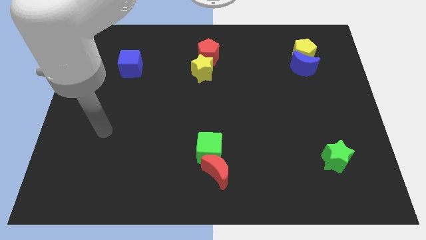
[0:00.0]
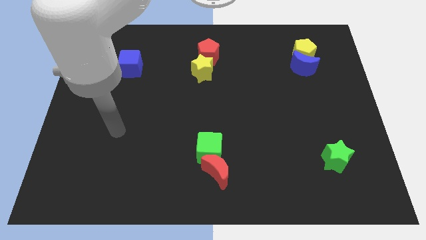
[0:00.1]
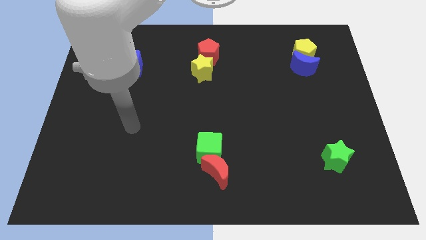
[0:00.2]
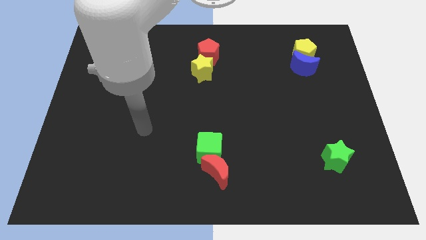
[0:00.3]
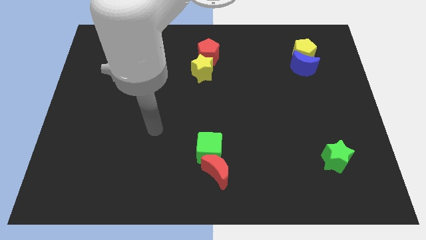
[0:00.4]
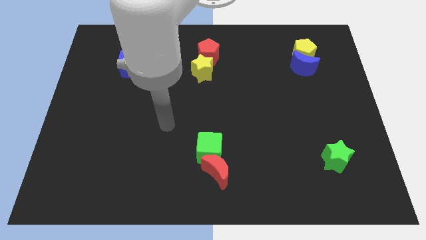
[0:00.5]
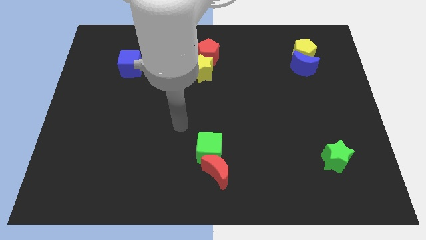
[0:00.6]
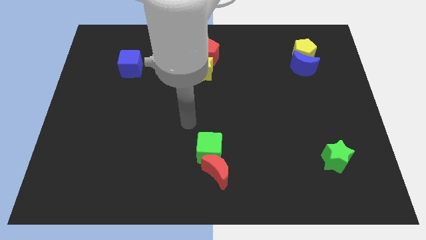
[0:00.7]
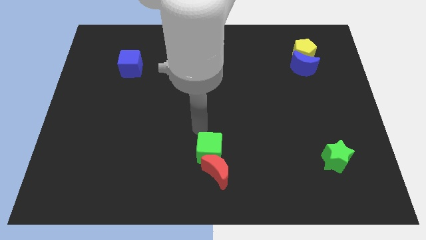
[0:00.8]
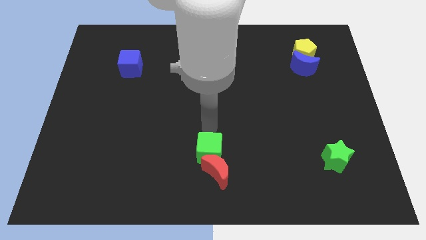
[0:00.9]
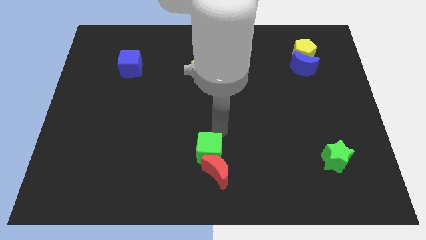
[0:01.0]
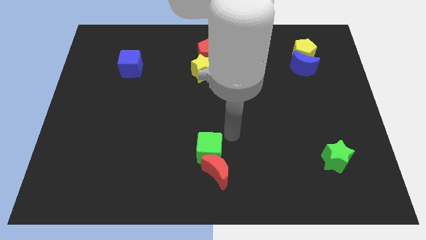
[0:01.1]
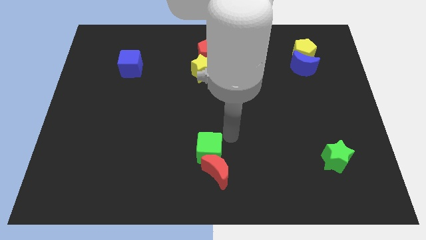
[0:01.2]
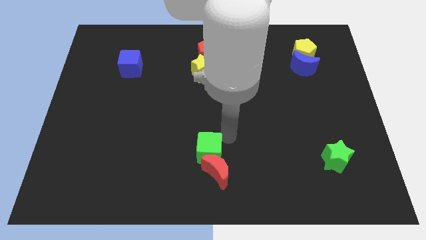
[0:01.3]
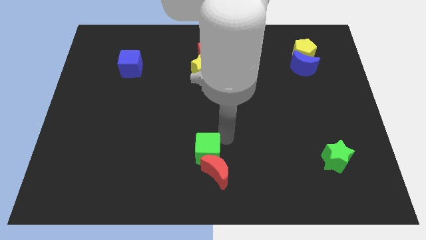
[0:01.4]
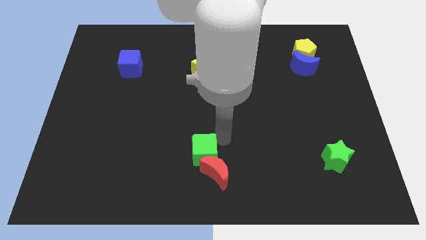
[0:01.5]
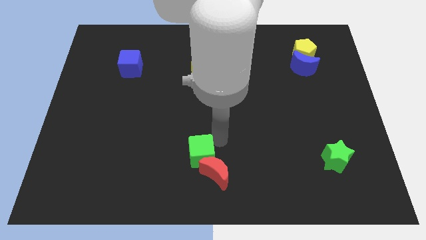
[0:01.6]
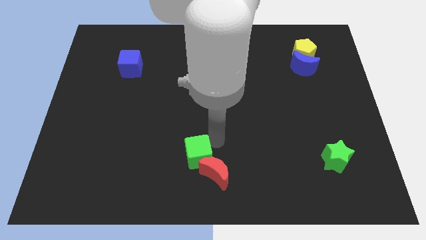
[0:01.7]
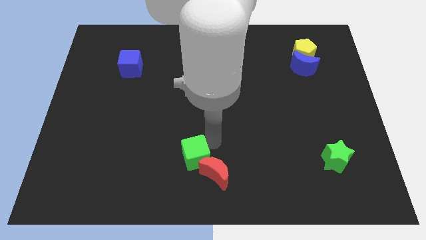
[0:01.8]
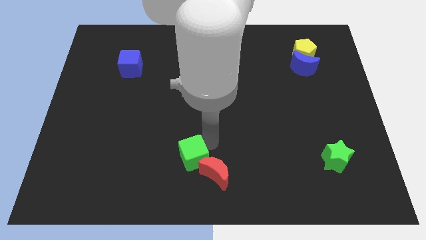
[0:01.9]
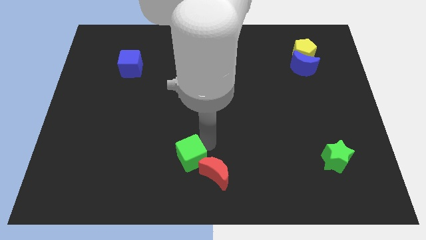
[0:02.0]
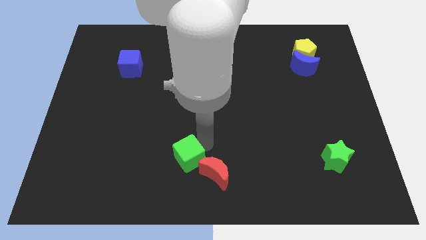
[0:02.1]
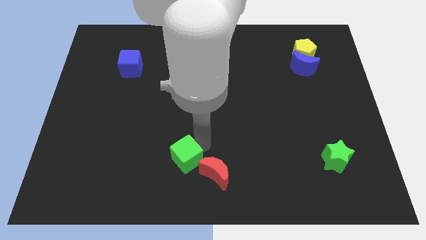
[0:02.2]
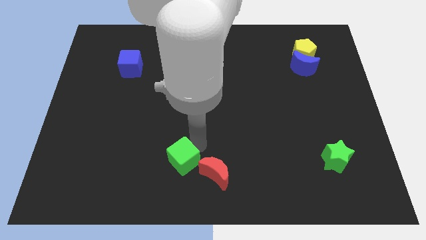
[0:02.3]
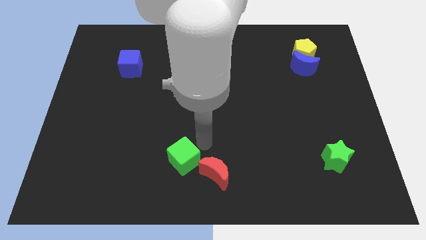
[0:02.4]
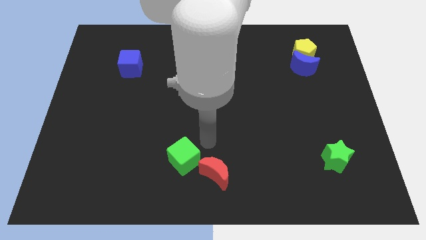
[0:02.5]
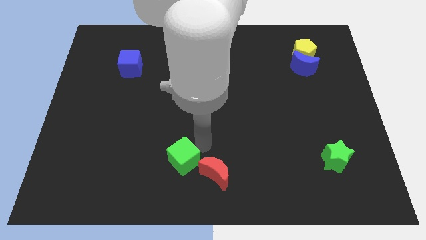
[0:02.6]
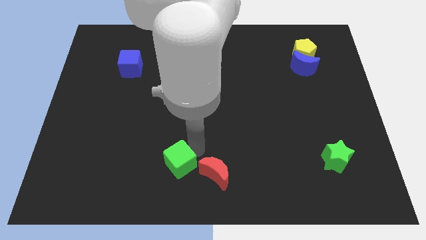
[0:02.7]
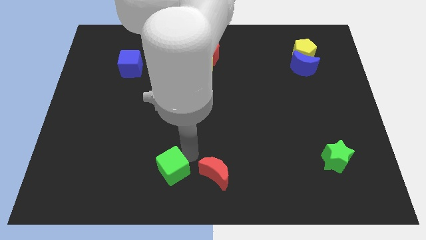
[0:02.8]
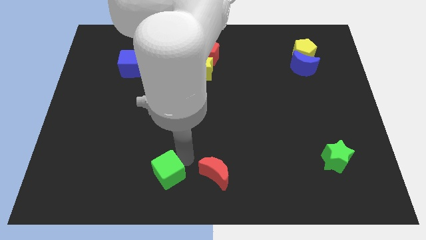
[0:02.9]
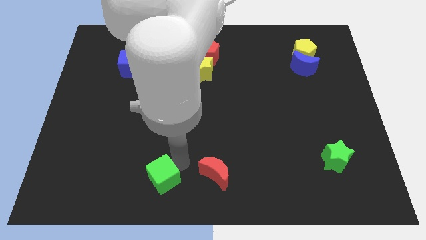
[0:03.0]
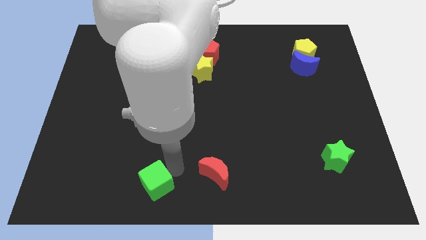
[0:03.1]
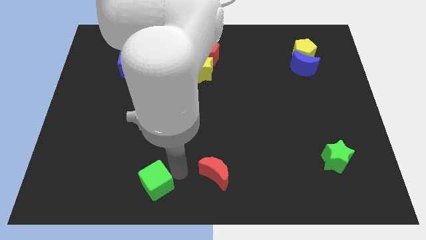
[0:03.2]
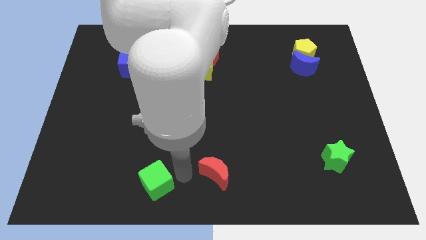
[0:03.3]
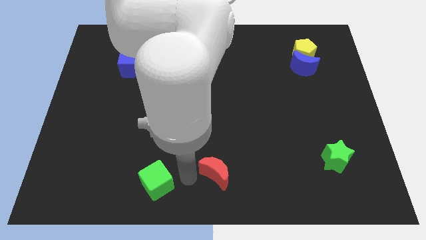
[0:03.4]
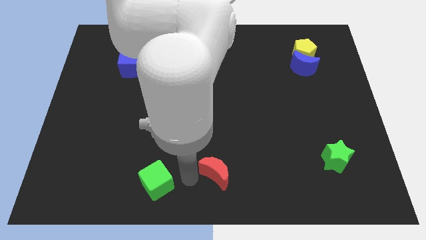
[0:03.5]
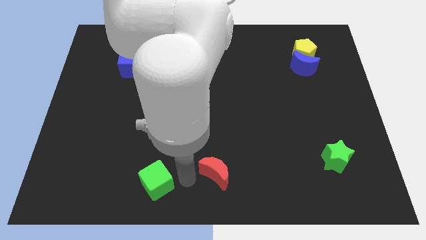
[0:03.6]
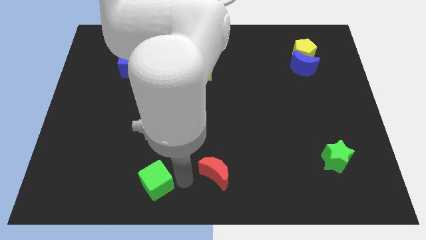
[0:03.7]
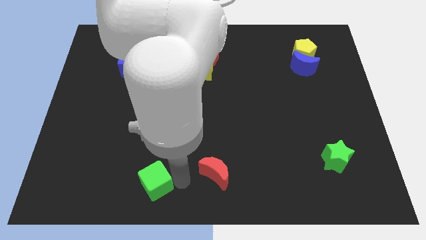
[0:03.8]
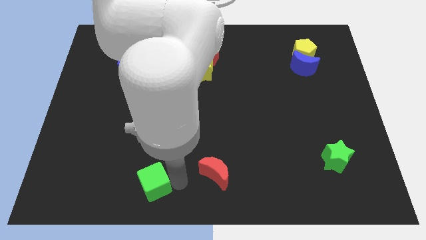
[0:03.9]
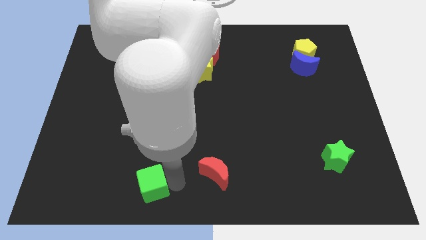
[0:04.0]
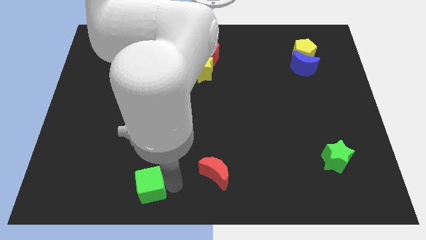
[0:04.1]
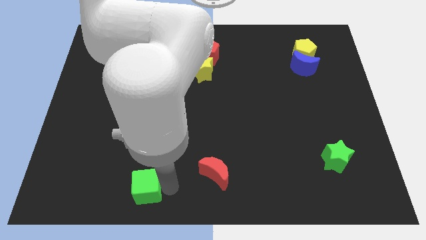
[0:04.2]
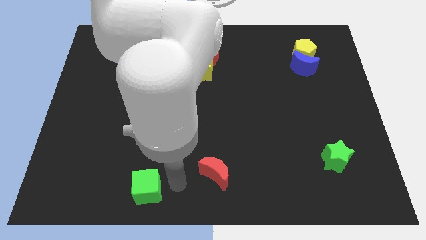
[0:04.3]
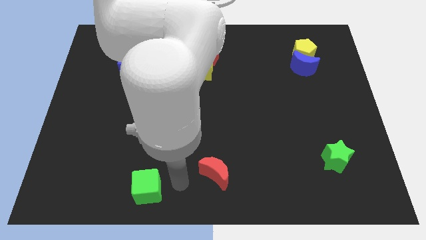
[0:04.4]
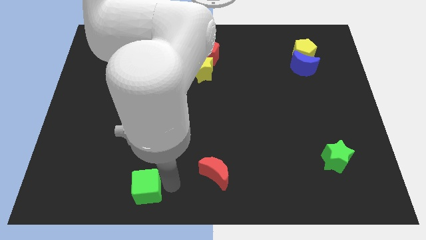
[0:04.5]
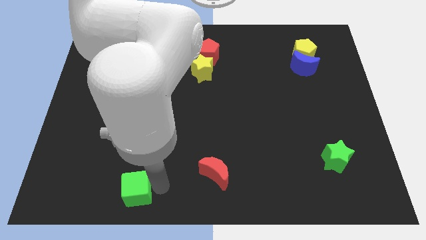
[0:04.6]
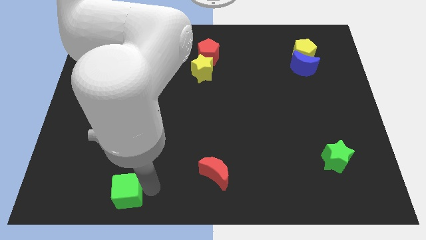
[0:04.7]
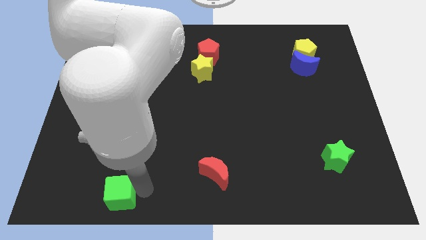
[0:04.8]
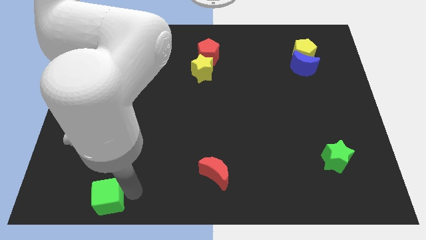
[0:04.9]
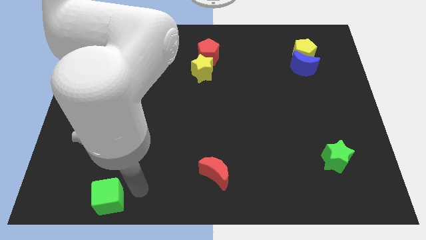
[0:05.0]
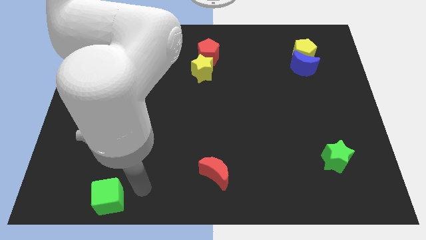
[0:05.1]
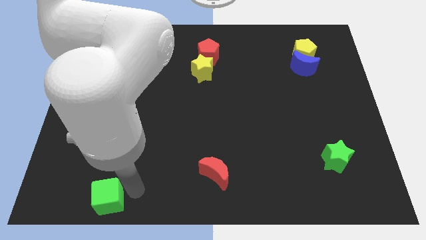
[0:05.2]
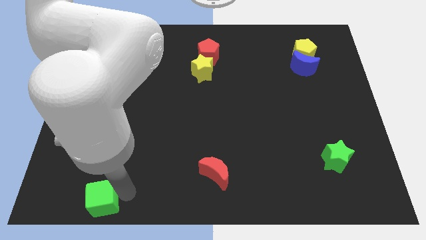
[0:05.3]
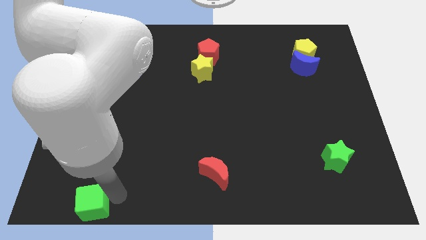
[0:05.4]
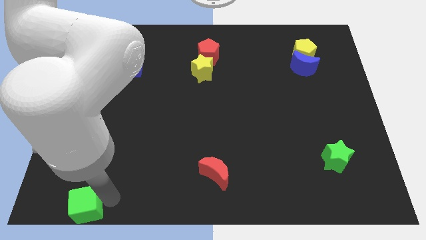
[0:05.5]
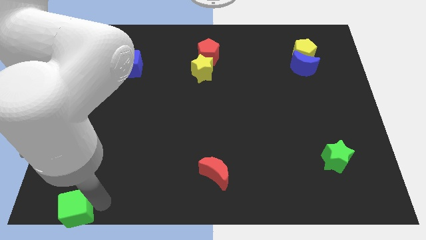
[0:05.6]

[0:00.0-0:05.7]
put the green cube to the bottom left of the board
